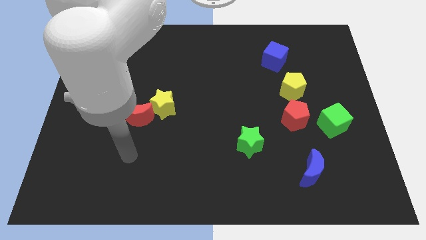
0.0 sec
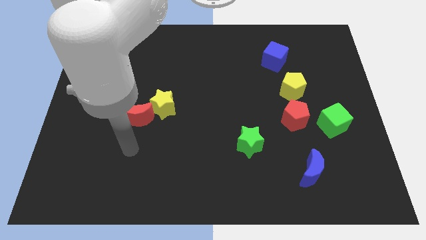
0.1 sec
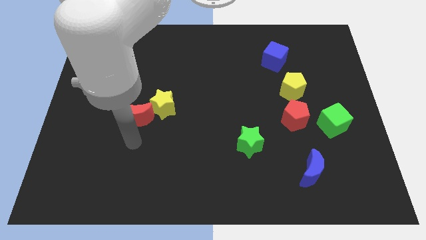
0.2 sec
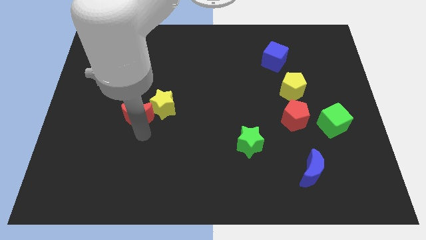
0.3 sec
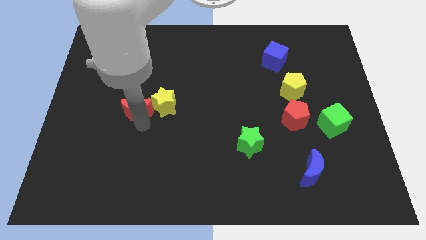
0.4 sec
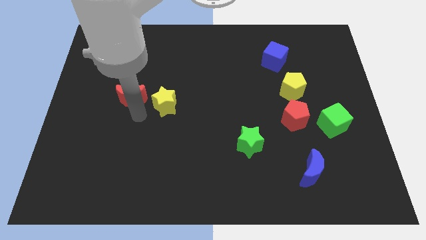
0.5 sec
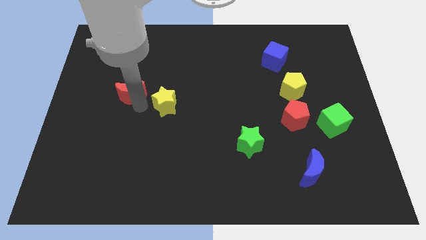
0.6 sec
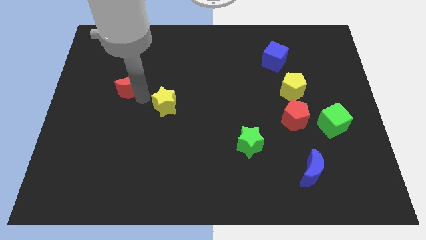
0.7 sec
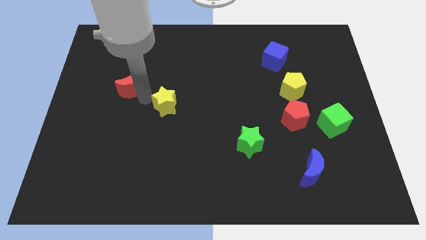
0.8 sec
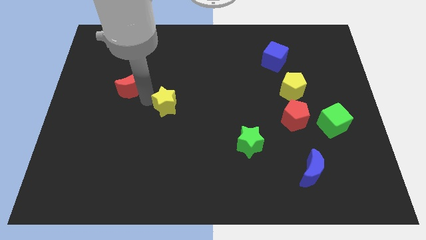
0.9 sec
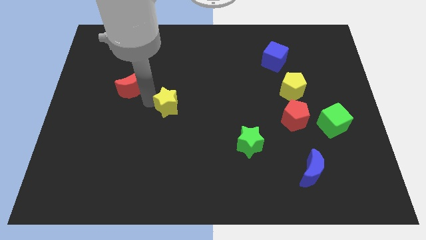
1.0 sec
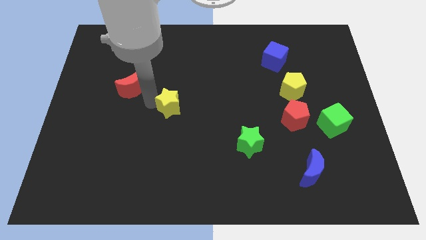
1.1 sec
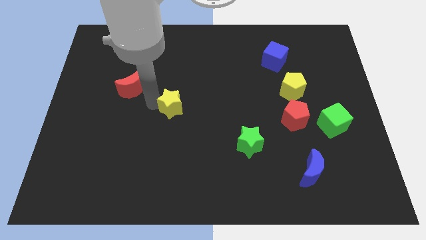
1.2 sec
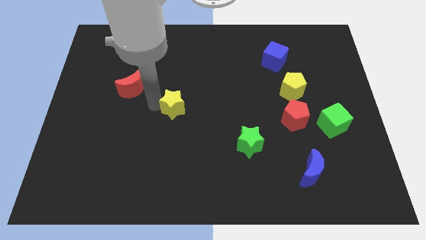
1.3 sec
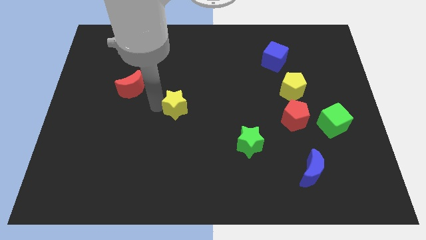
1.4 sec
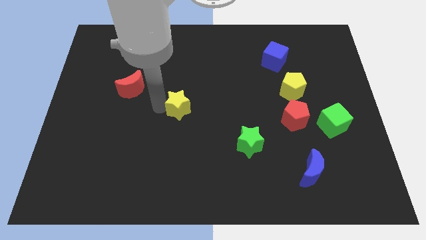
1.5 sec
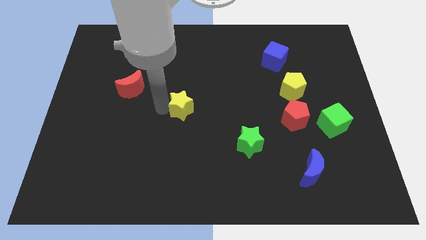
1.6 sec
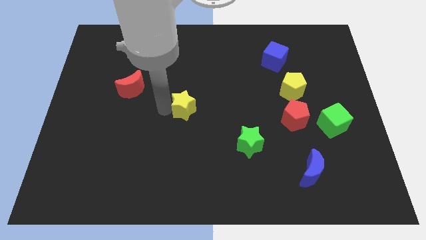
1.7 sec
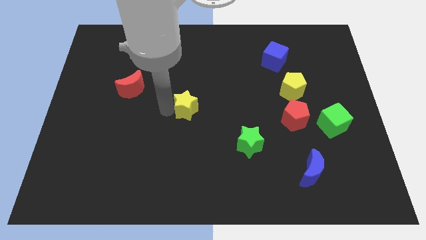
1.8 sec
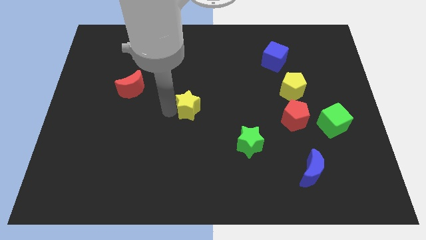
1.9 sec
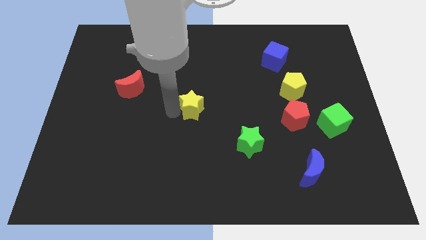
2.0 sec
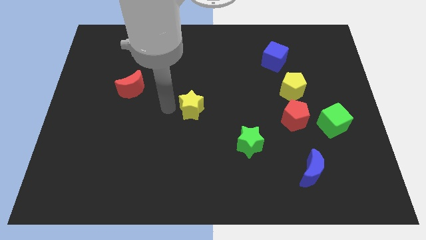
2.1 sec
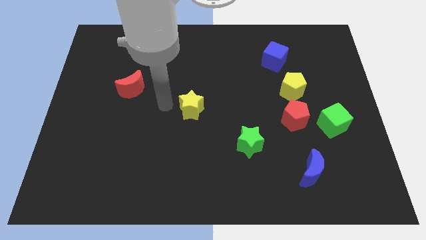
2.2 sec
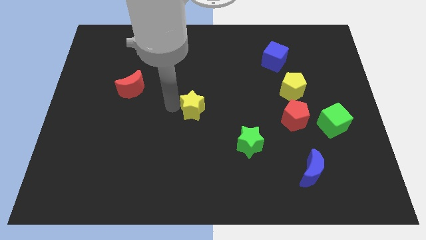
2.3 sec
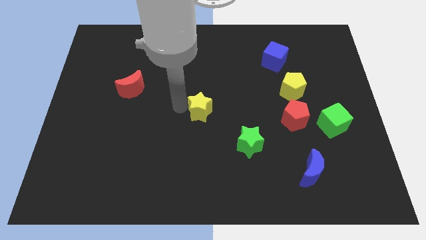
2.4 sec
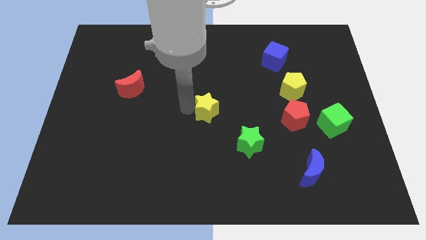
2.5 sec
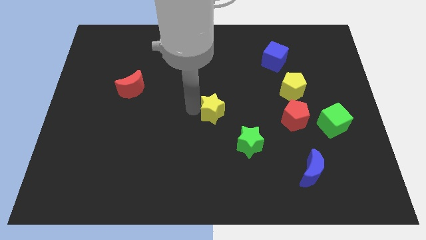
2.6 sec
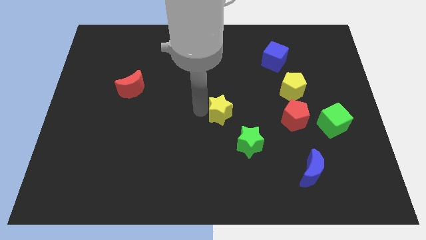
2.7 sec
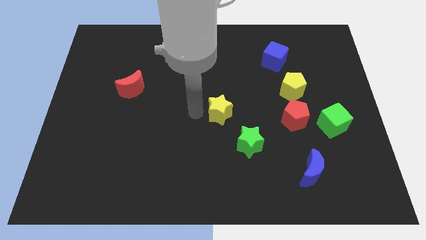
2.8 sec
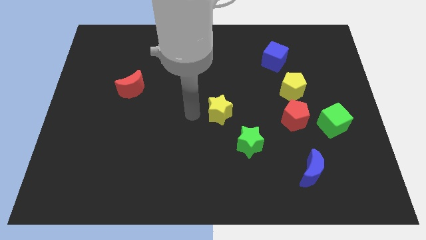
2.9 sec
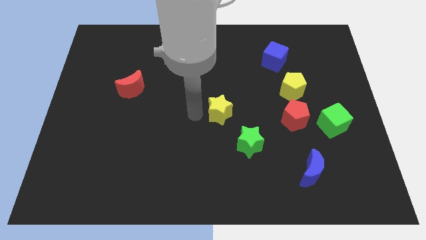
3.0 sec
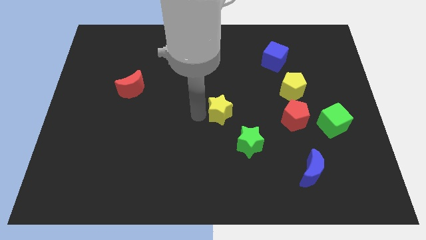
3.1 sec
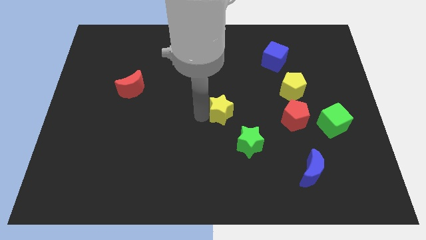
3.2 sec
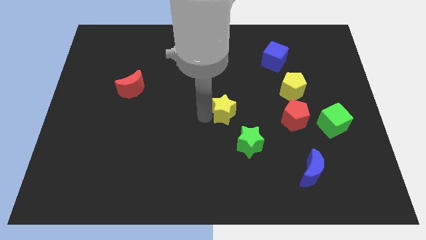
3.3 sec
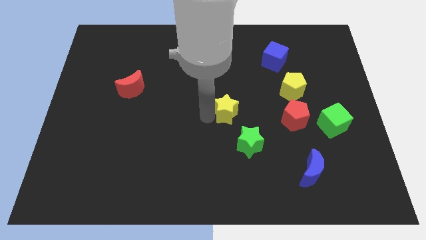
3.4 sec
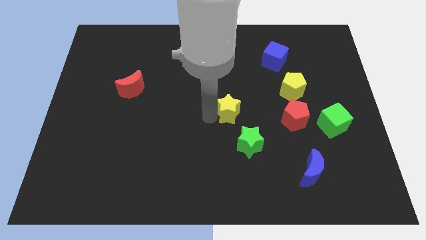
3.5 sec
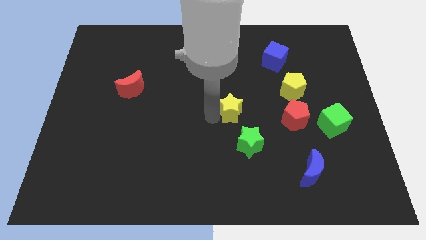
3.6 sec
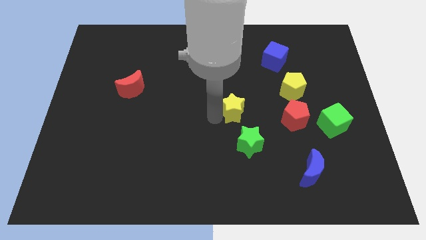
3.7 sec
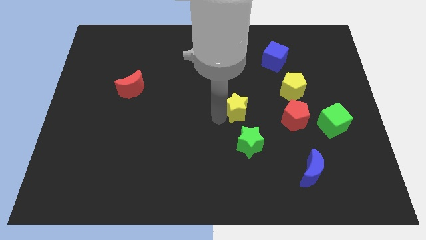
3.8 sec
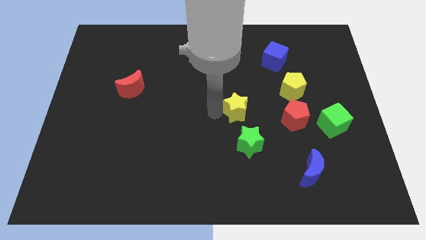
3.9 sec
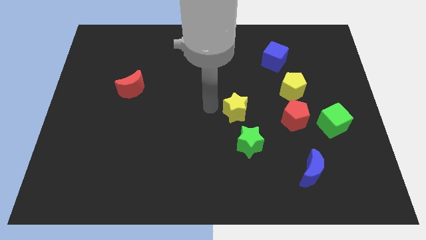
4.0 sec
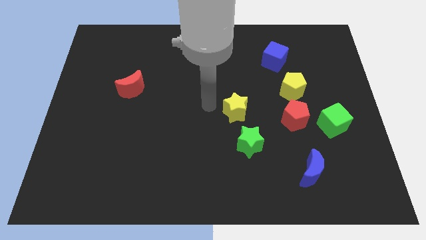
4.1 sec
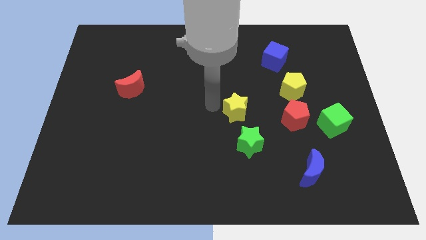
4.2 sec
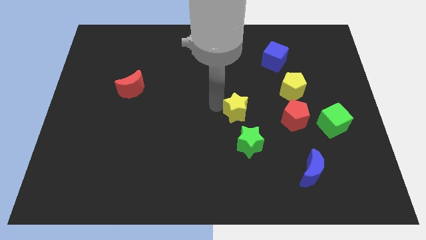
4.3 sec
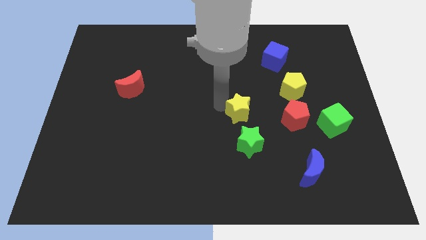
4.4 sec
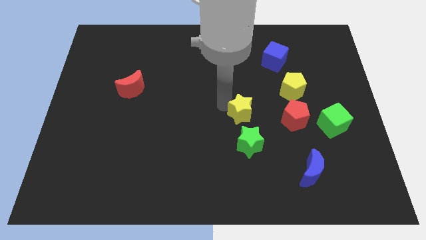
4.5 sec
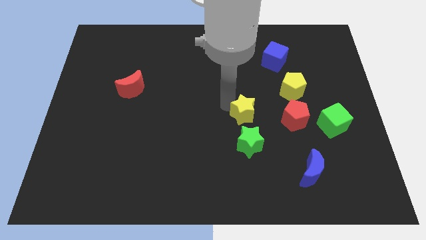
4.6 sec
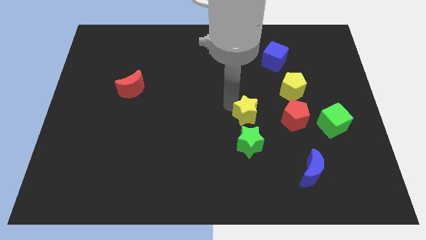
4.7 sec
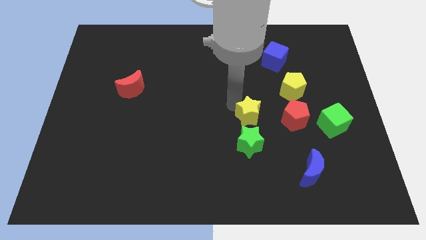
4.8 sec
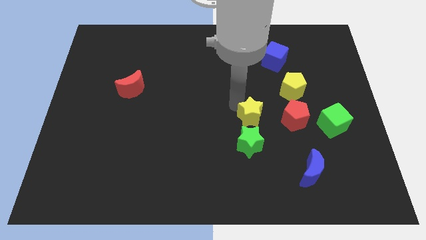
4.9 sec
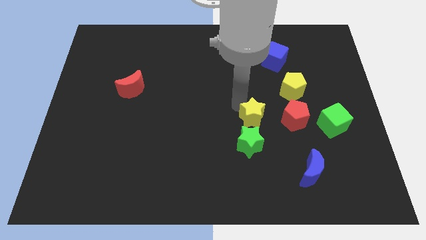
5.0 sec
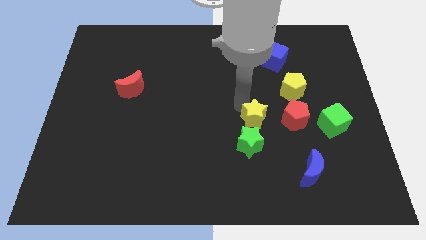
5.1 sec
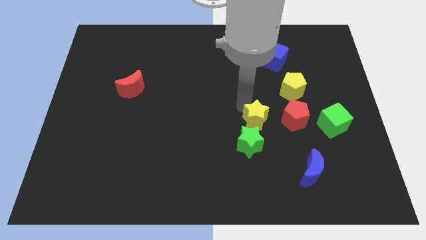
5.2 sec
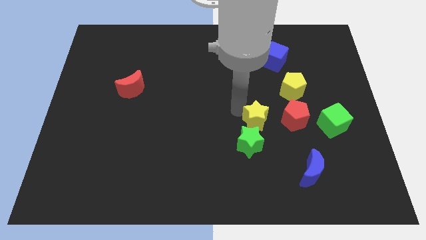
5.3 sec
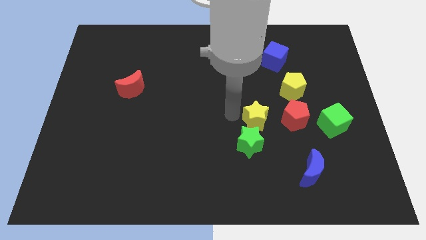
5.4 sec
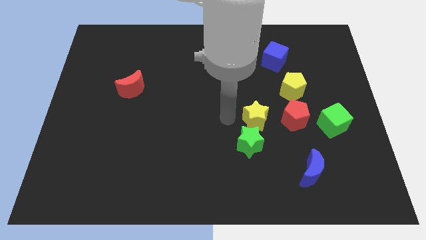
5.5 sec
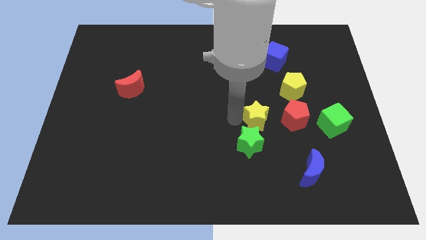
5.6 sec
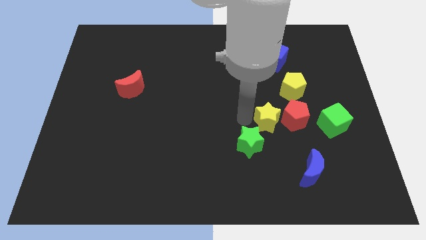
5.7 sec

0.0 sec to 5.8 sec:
push the yellow star next to the red pentagon
